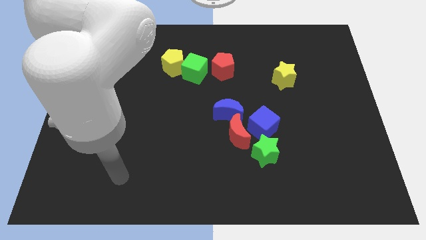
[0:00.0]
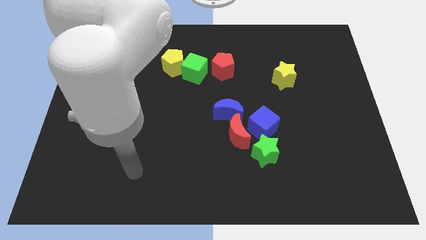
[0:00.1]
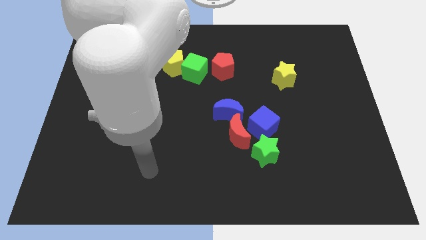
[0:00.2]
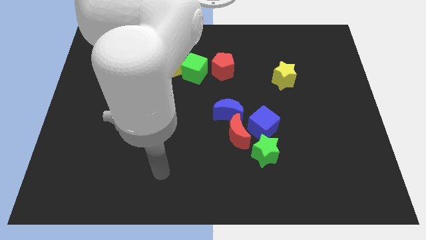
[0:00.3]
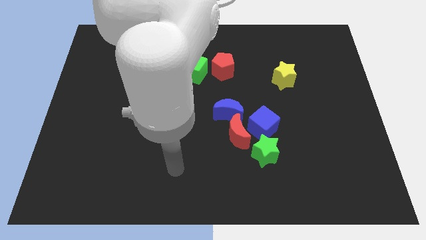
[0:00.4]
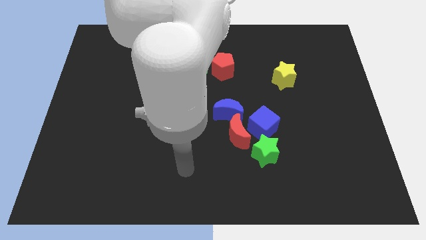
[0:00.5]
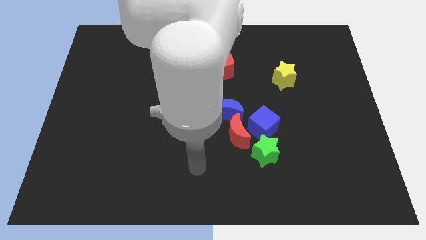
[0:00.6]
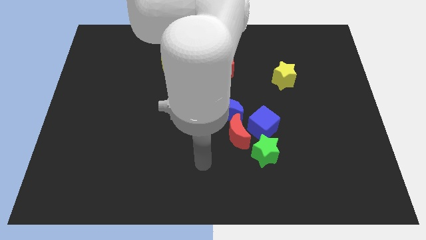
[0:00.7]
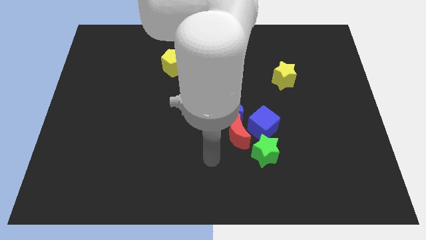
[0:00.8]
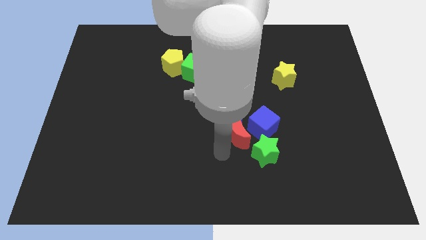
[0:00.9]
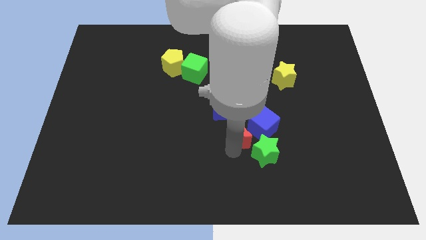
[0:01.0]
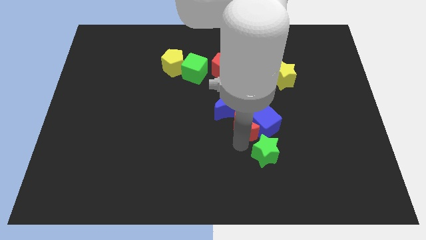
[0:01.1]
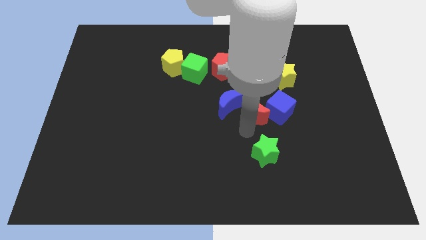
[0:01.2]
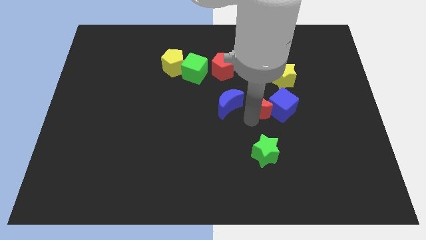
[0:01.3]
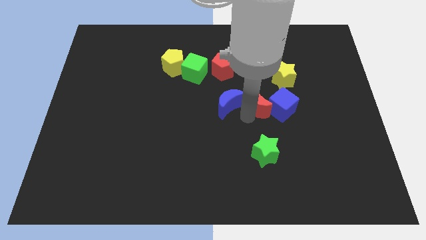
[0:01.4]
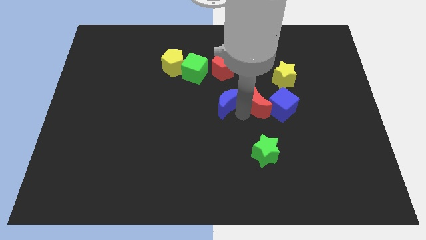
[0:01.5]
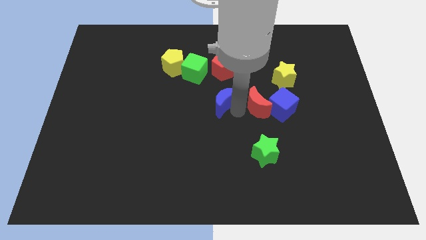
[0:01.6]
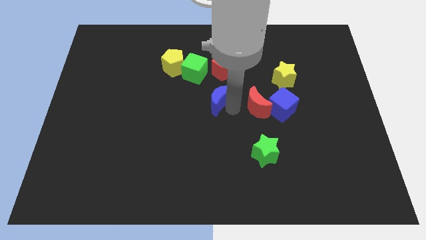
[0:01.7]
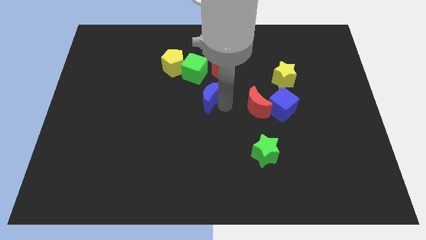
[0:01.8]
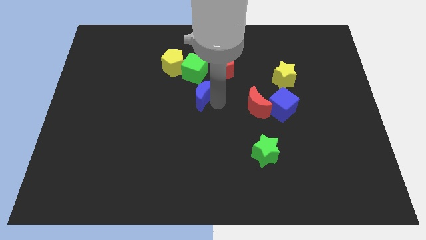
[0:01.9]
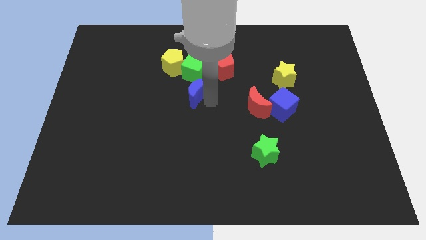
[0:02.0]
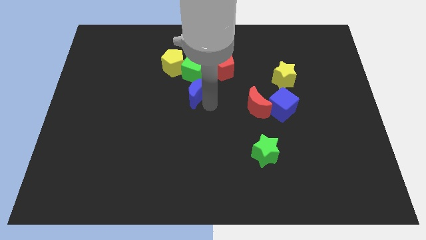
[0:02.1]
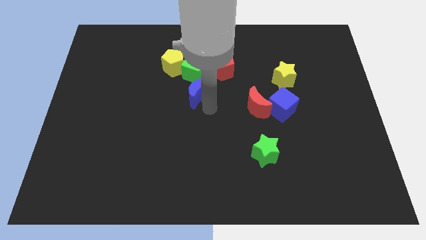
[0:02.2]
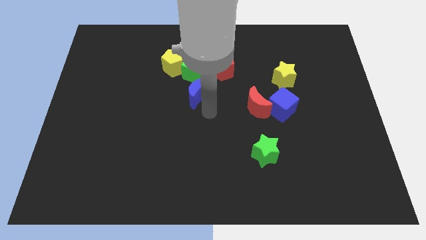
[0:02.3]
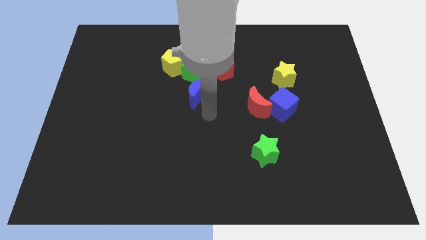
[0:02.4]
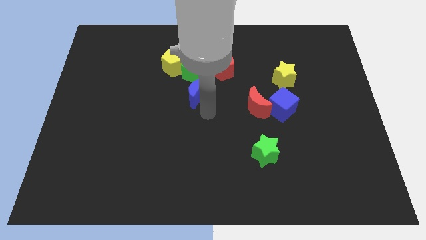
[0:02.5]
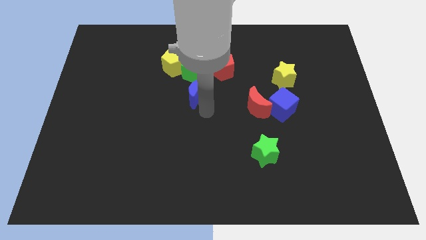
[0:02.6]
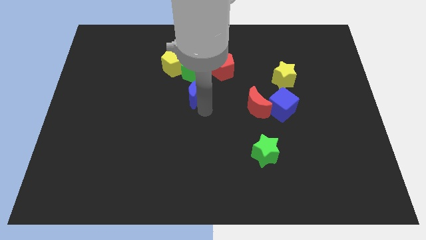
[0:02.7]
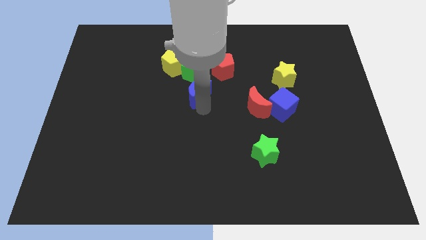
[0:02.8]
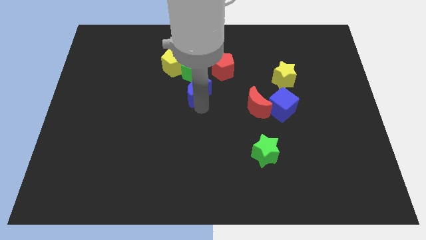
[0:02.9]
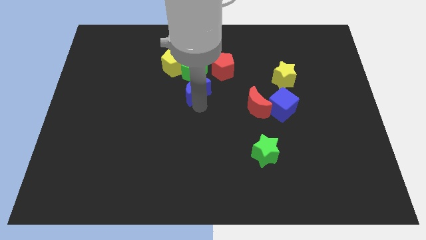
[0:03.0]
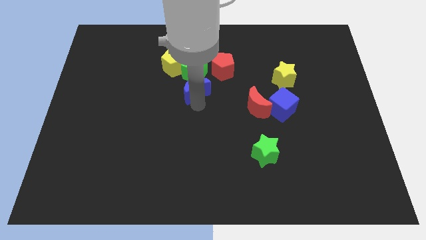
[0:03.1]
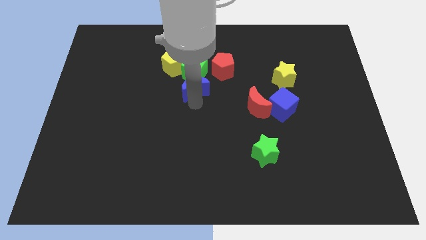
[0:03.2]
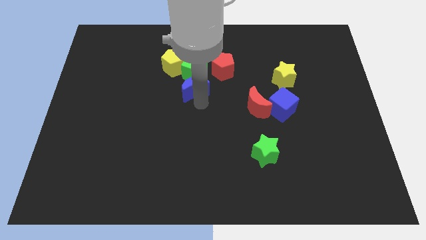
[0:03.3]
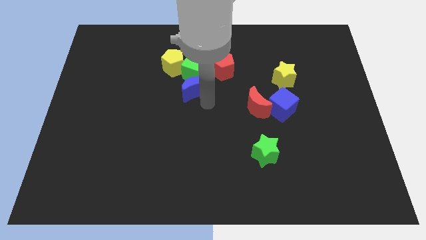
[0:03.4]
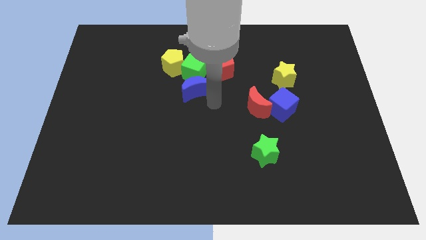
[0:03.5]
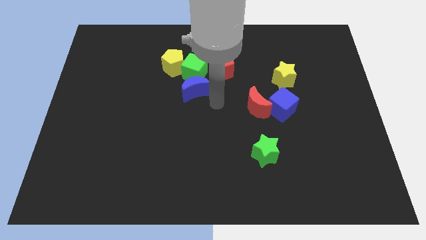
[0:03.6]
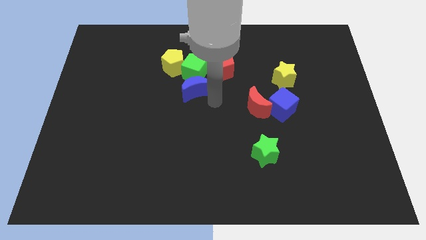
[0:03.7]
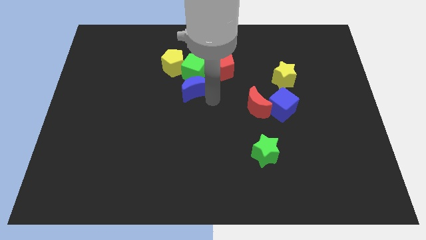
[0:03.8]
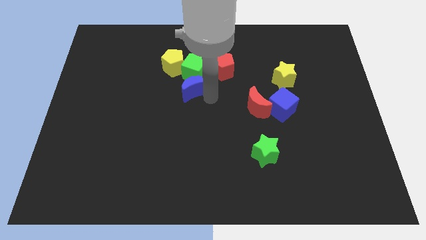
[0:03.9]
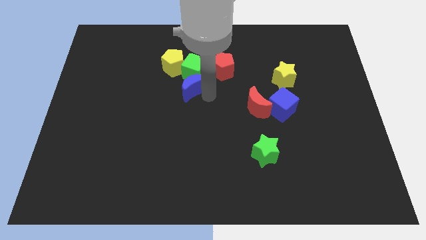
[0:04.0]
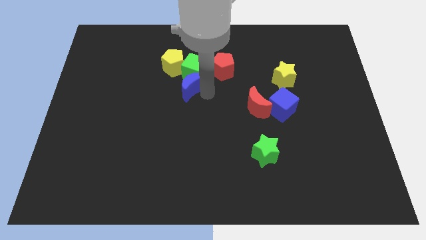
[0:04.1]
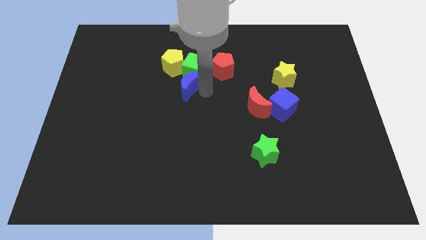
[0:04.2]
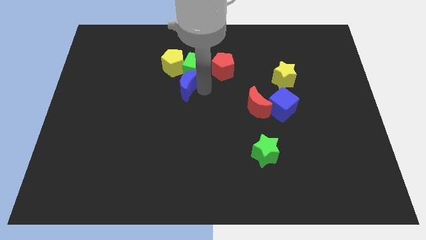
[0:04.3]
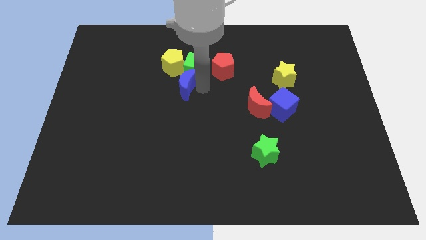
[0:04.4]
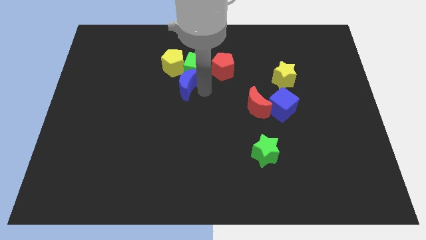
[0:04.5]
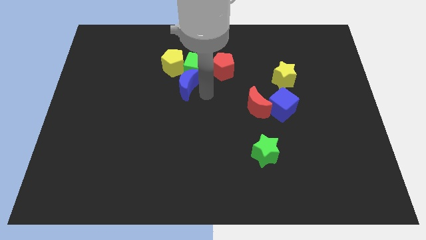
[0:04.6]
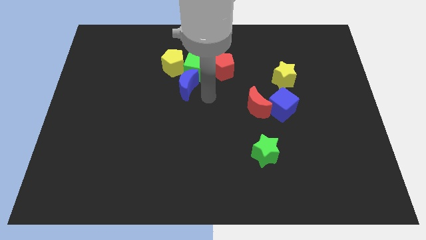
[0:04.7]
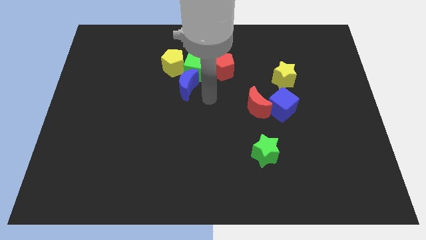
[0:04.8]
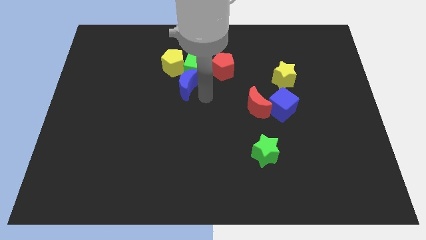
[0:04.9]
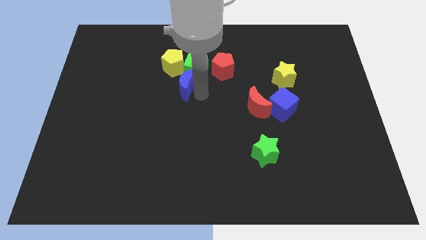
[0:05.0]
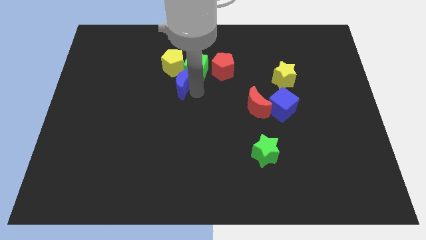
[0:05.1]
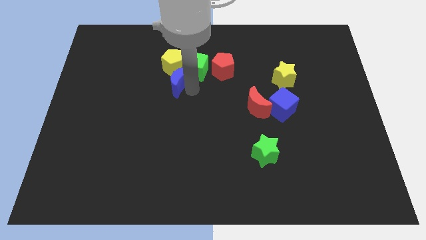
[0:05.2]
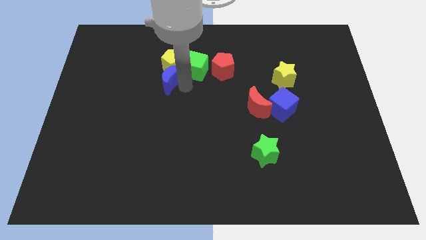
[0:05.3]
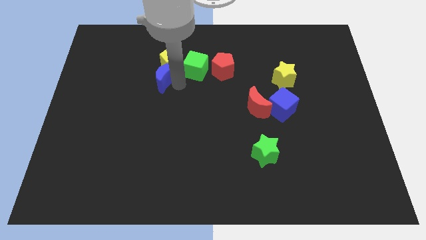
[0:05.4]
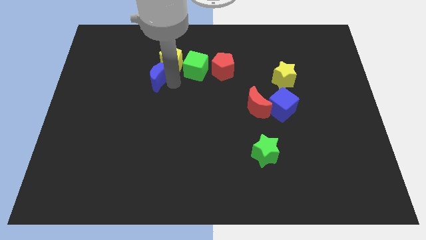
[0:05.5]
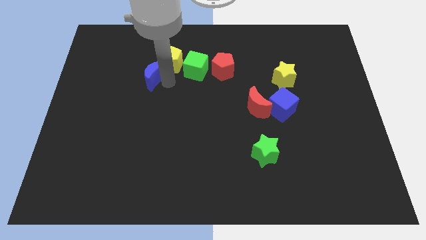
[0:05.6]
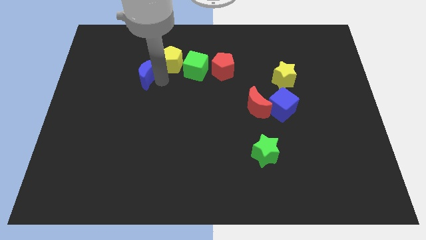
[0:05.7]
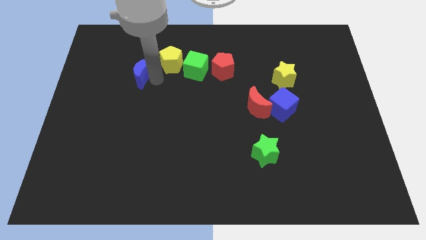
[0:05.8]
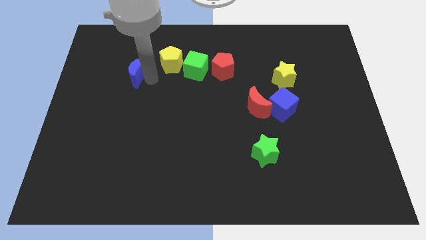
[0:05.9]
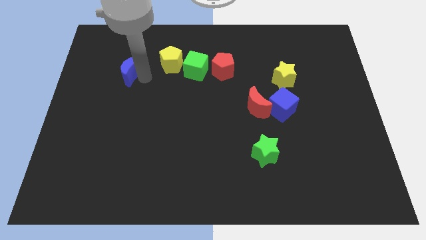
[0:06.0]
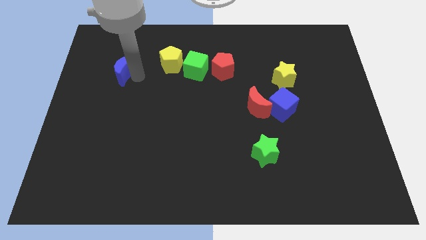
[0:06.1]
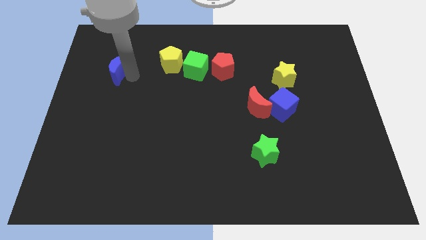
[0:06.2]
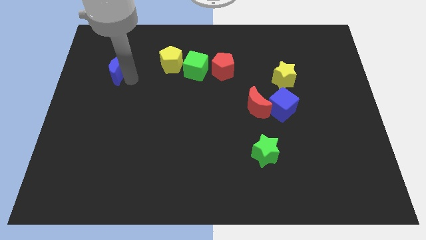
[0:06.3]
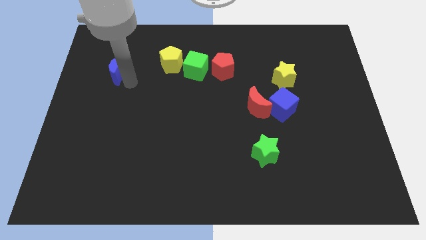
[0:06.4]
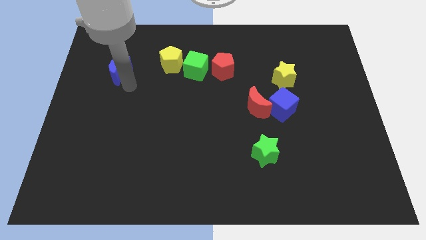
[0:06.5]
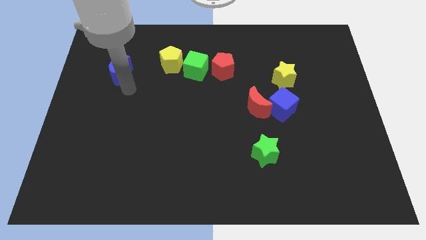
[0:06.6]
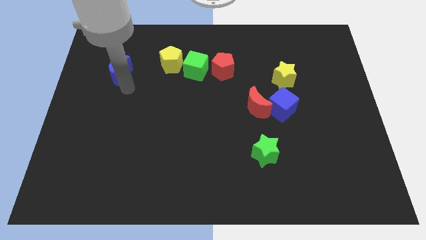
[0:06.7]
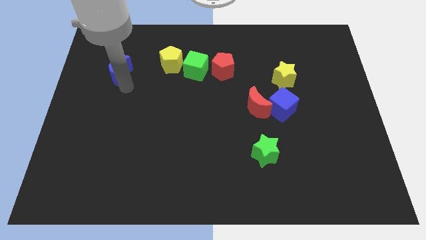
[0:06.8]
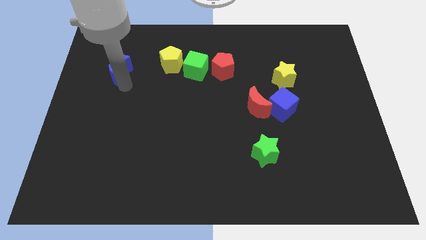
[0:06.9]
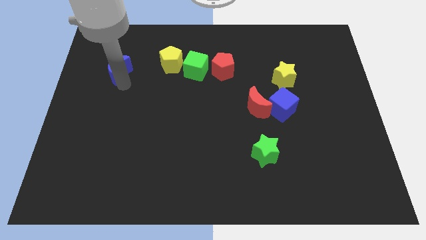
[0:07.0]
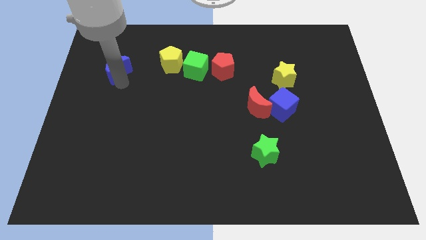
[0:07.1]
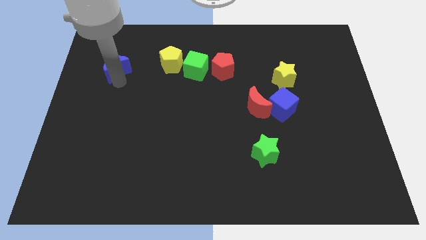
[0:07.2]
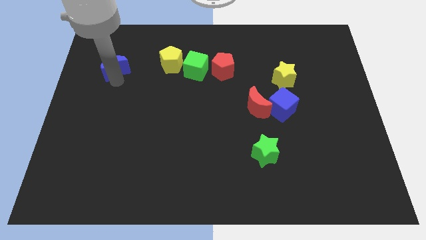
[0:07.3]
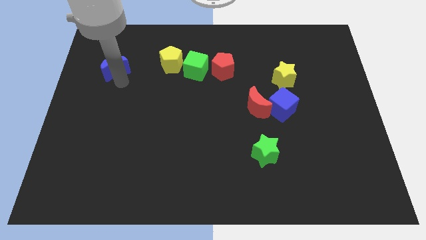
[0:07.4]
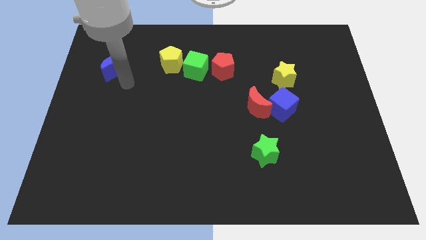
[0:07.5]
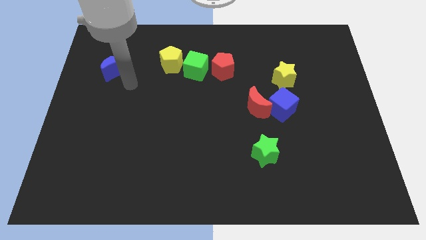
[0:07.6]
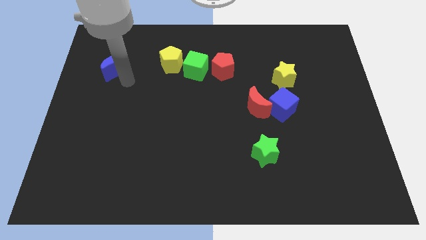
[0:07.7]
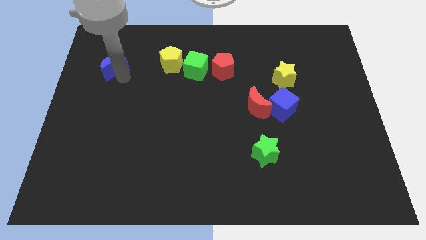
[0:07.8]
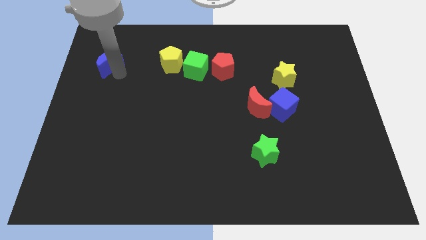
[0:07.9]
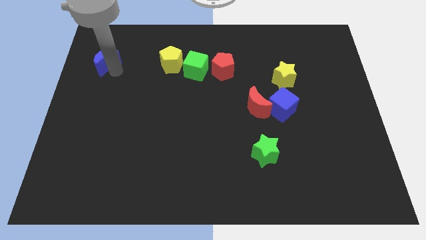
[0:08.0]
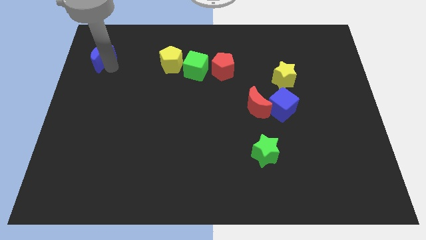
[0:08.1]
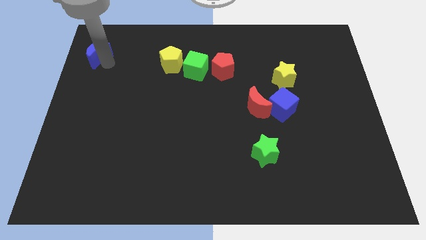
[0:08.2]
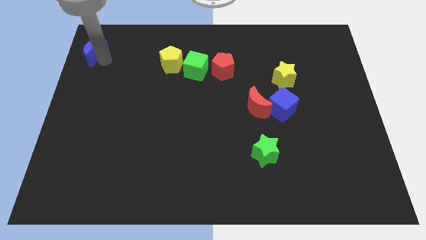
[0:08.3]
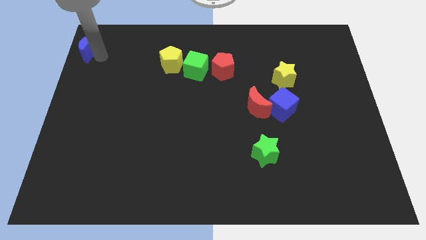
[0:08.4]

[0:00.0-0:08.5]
push the blue moon to the top left
